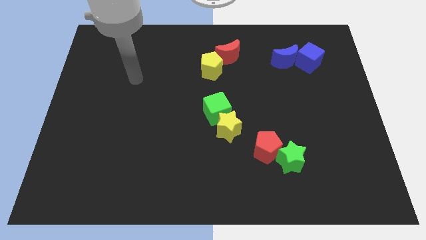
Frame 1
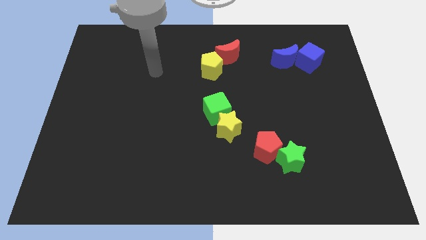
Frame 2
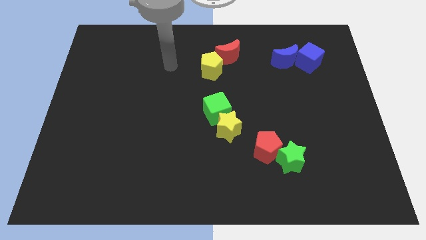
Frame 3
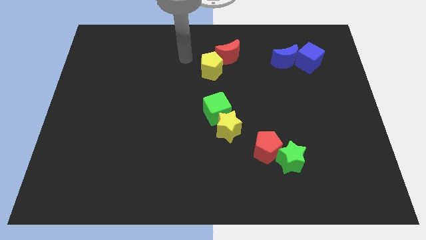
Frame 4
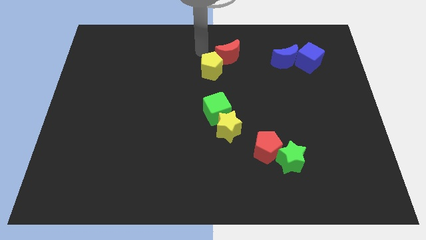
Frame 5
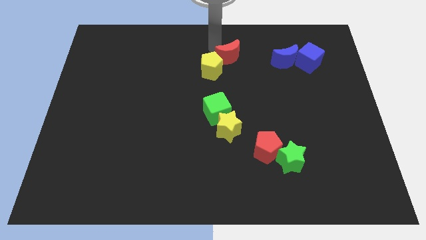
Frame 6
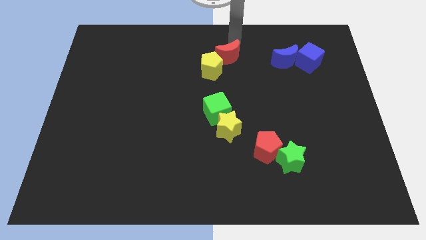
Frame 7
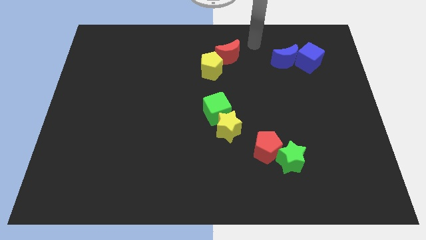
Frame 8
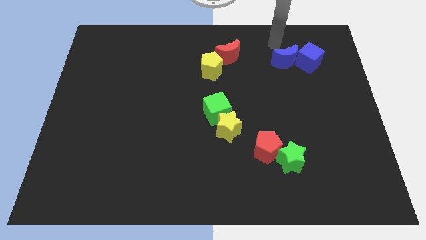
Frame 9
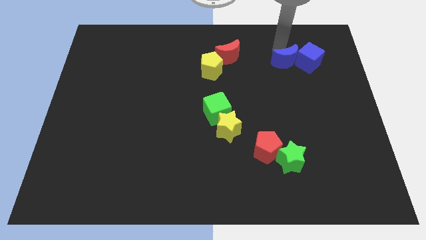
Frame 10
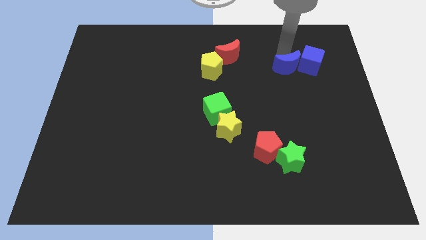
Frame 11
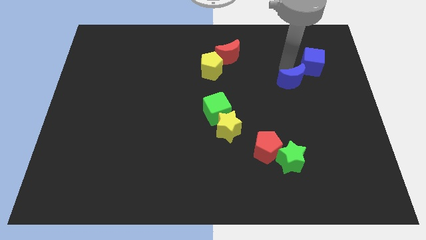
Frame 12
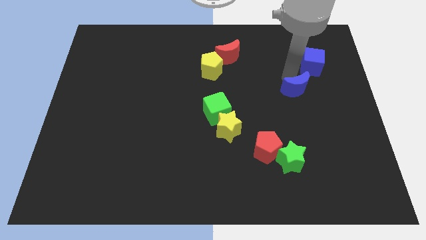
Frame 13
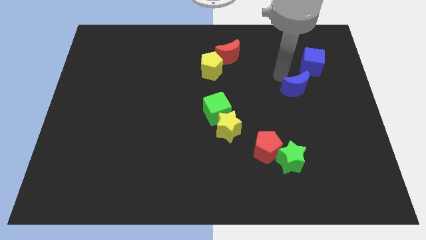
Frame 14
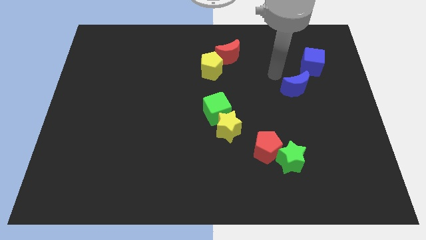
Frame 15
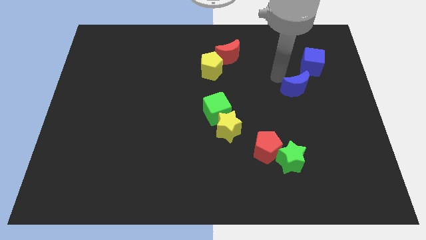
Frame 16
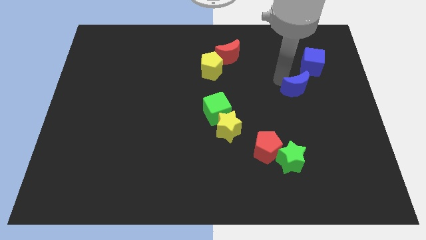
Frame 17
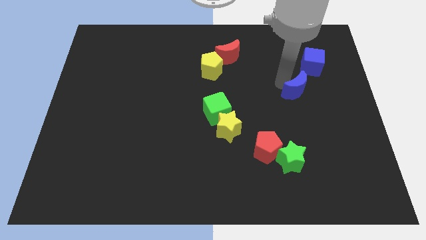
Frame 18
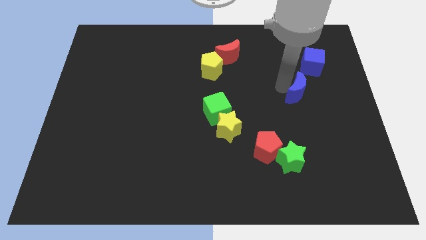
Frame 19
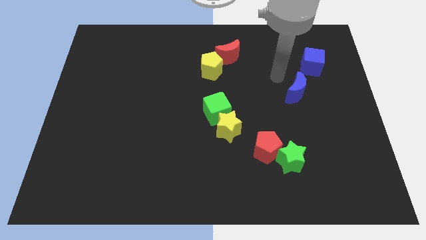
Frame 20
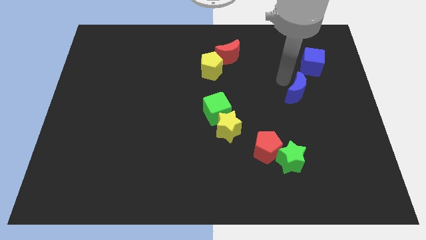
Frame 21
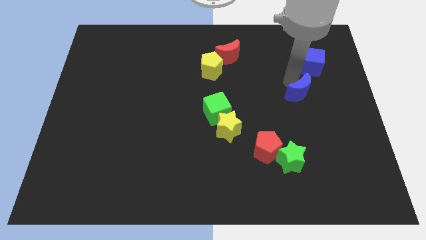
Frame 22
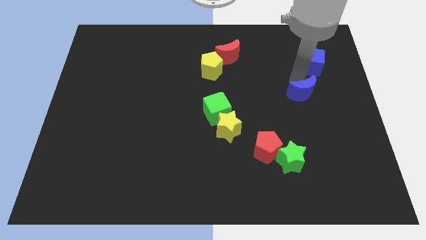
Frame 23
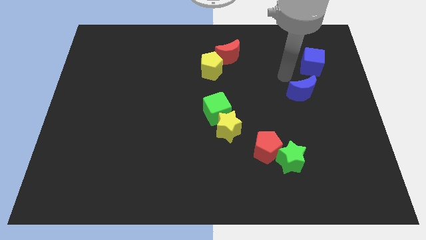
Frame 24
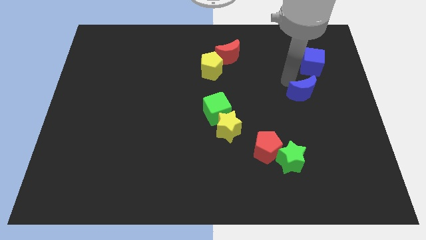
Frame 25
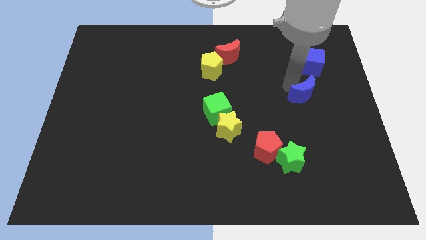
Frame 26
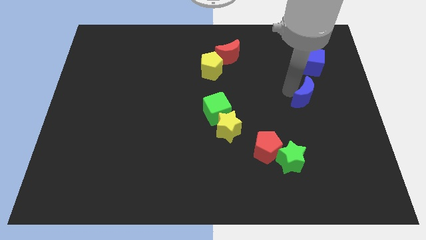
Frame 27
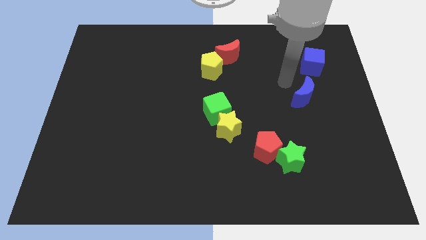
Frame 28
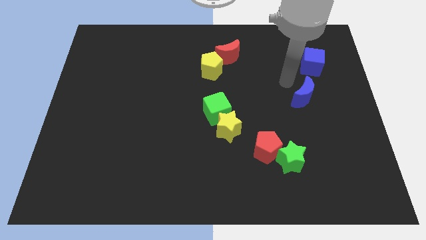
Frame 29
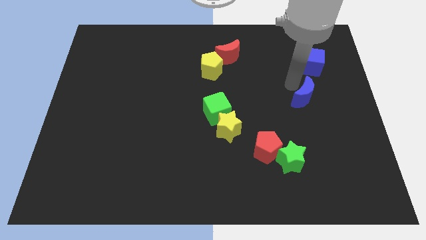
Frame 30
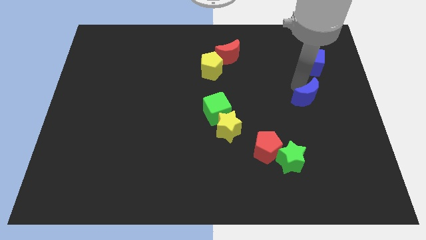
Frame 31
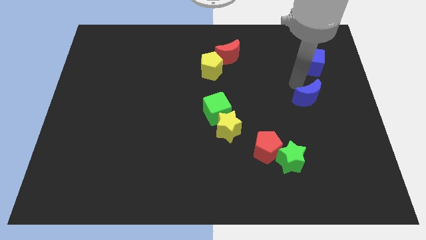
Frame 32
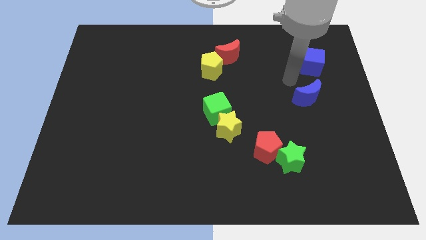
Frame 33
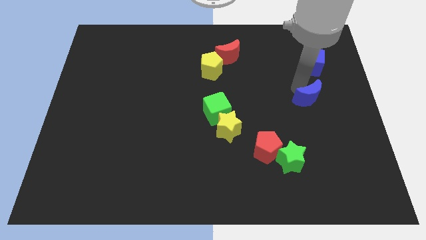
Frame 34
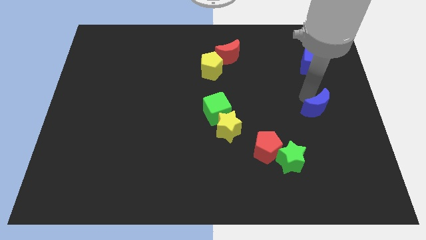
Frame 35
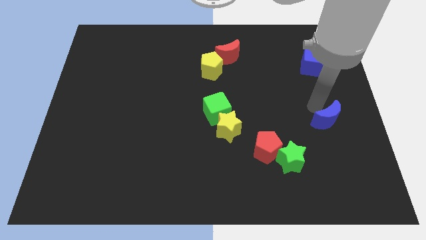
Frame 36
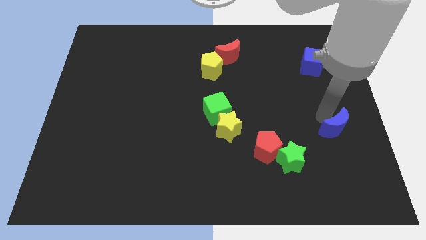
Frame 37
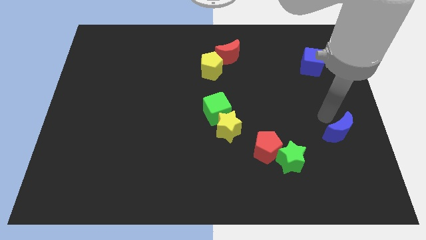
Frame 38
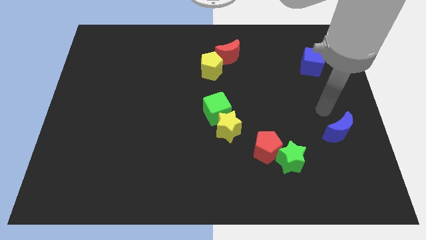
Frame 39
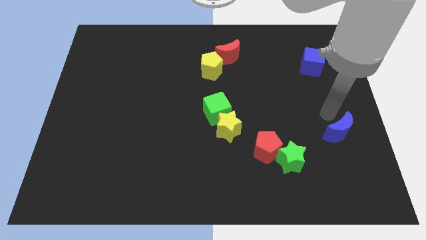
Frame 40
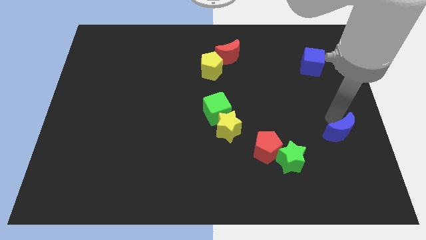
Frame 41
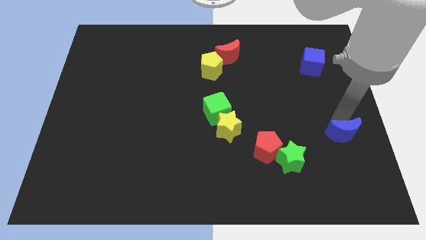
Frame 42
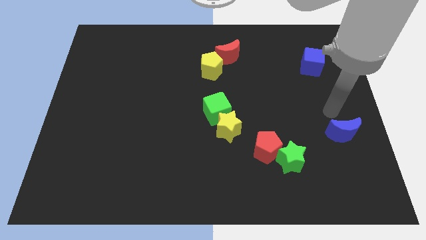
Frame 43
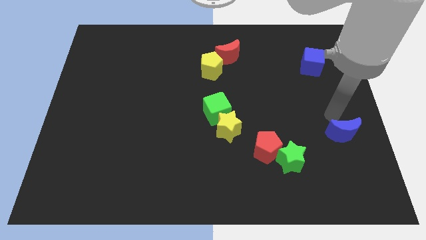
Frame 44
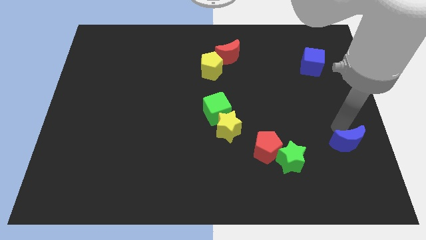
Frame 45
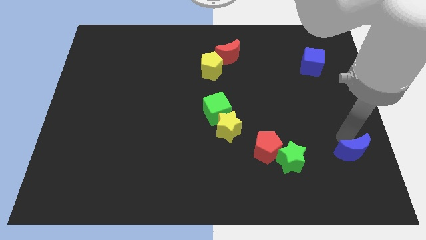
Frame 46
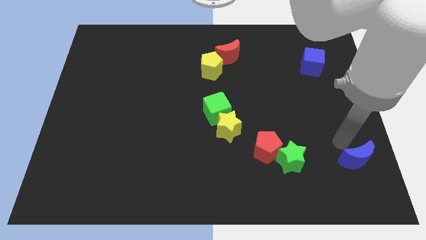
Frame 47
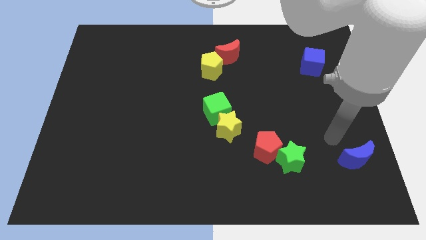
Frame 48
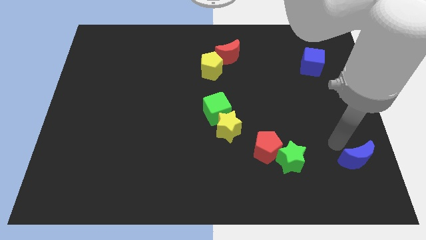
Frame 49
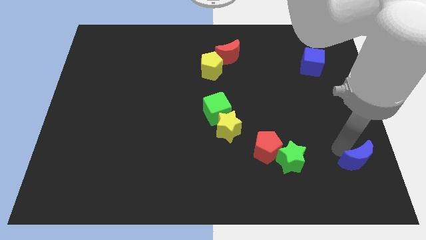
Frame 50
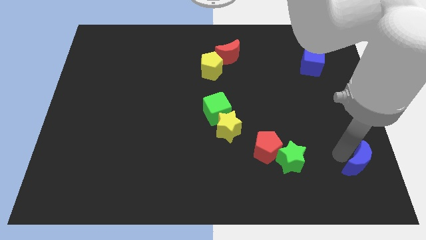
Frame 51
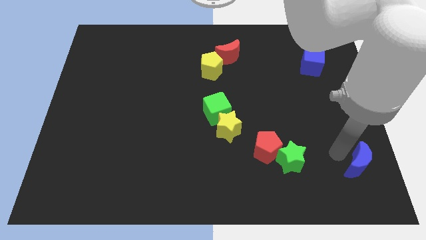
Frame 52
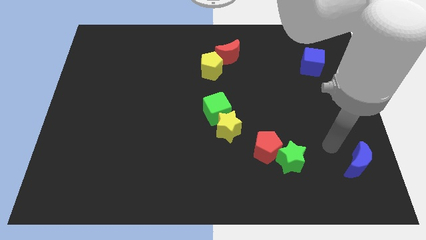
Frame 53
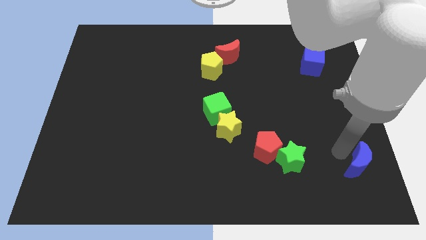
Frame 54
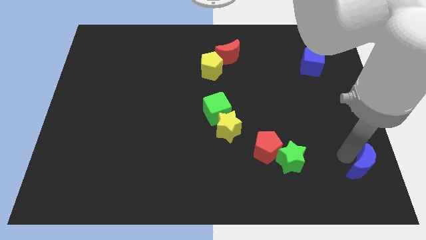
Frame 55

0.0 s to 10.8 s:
slide the blue moon to the bottom right of the board

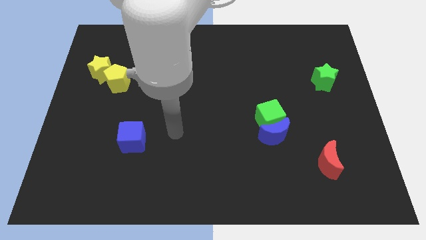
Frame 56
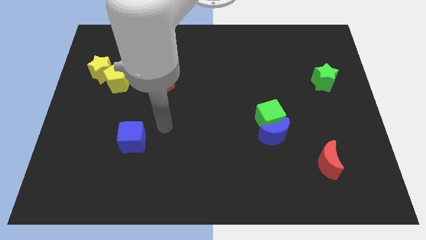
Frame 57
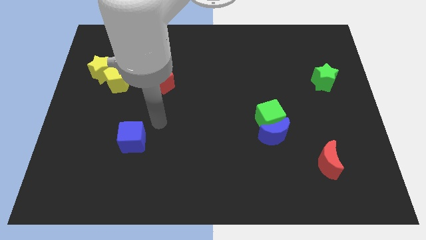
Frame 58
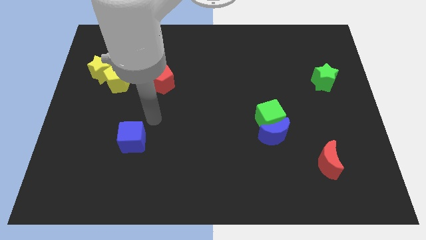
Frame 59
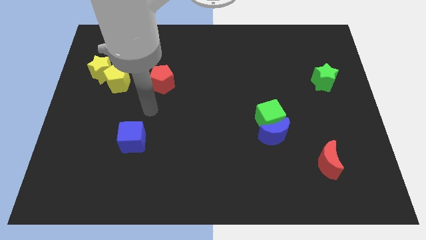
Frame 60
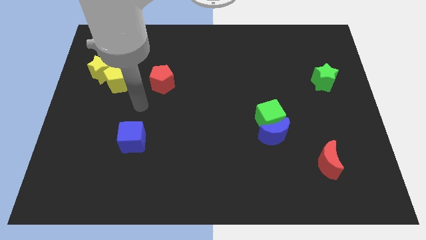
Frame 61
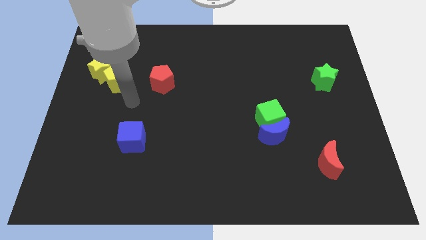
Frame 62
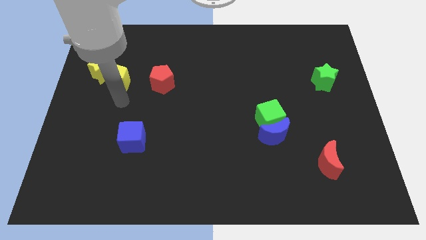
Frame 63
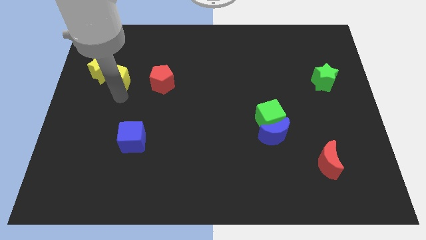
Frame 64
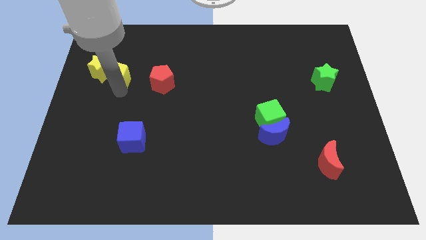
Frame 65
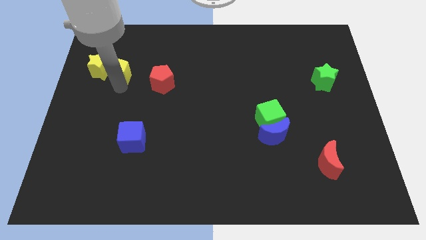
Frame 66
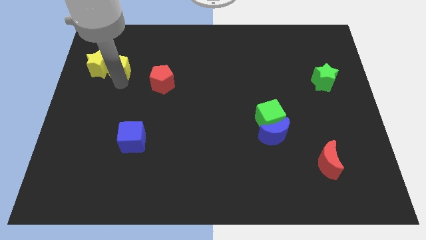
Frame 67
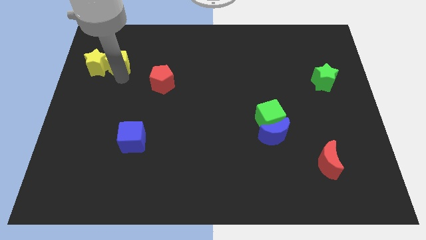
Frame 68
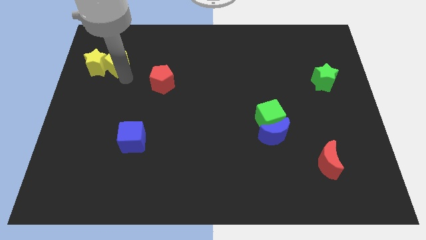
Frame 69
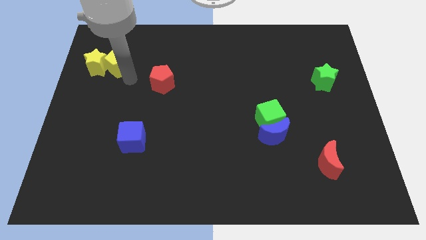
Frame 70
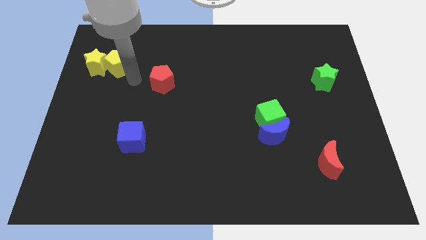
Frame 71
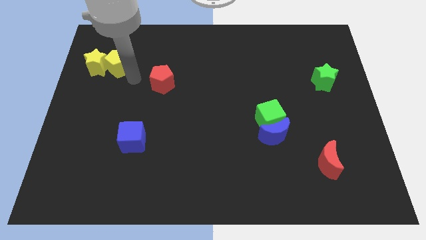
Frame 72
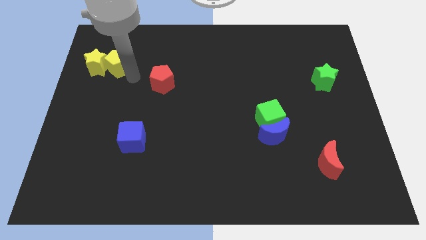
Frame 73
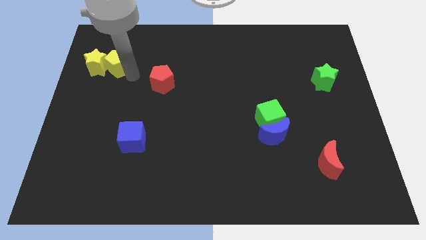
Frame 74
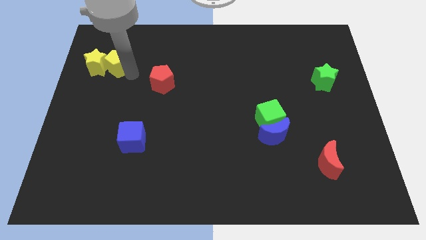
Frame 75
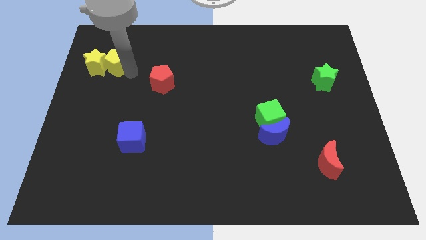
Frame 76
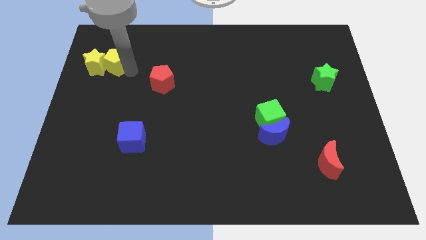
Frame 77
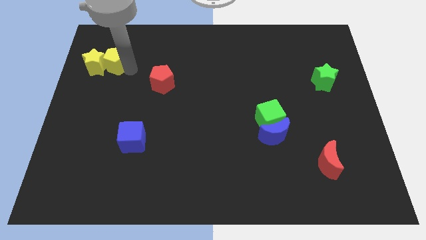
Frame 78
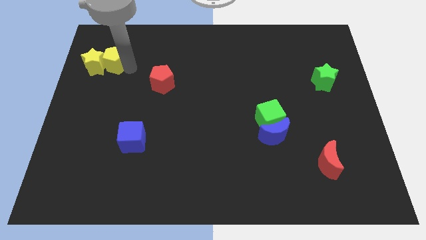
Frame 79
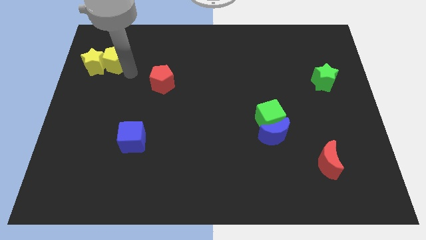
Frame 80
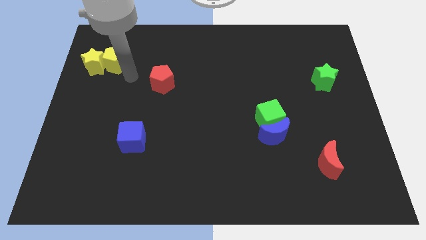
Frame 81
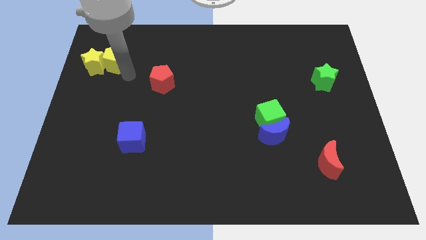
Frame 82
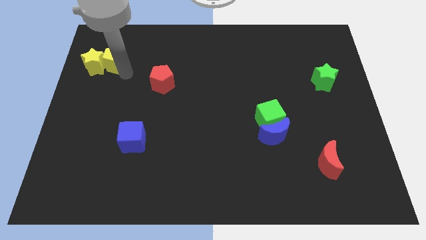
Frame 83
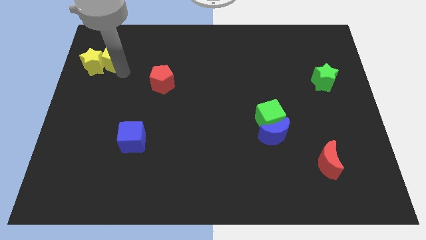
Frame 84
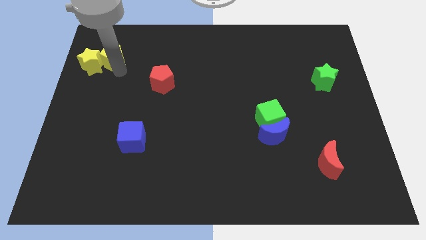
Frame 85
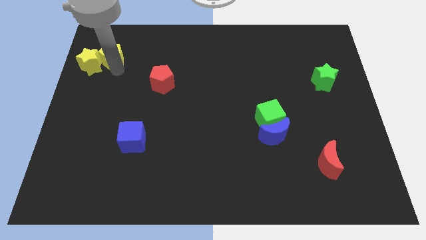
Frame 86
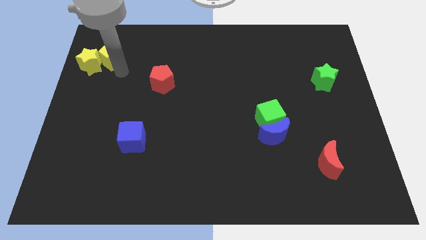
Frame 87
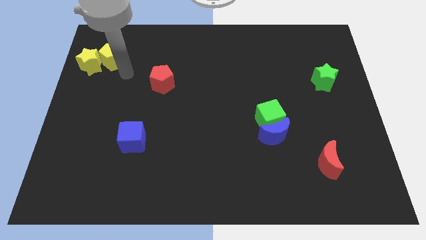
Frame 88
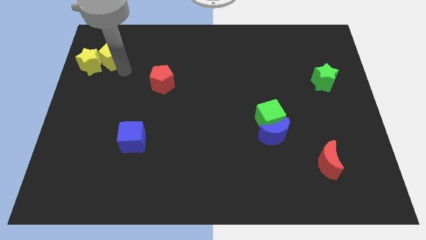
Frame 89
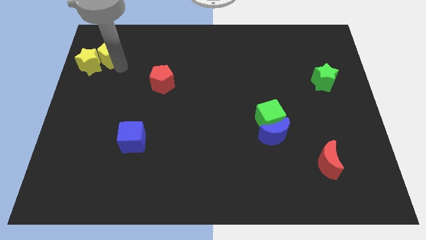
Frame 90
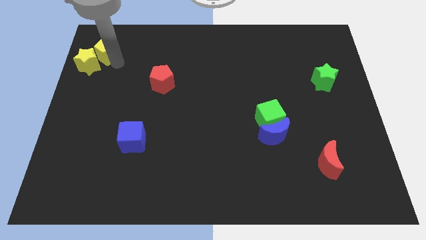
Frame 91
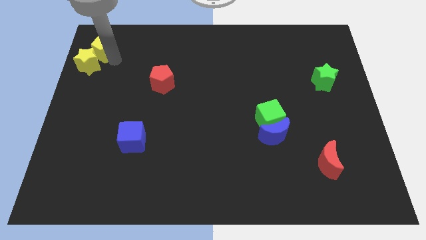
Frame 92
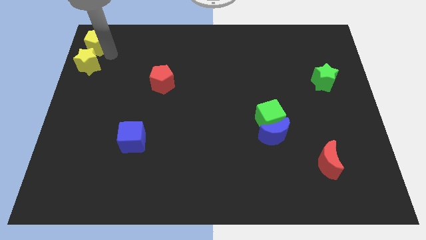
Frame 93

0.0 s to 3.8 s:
put the yellow pentagon to the top left of the board
